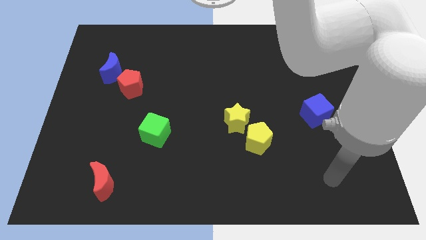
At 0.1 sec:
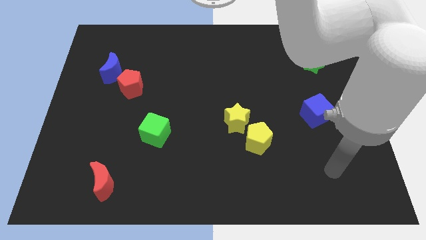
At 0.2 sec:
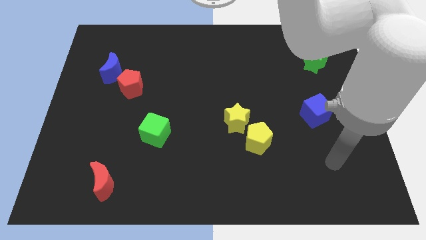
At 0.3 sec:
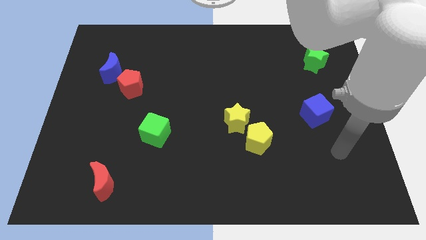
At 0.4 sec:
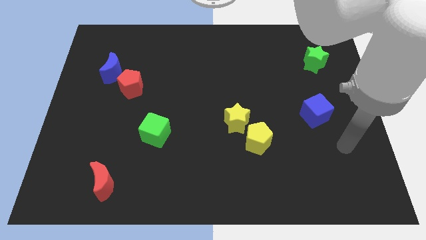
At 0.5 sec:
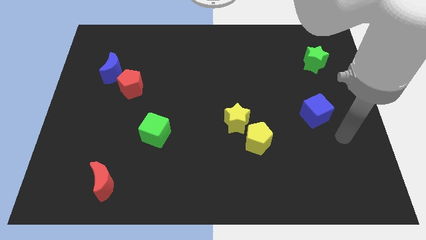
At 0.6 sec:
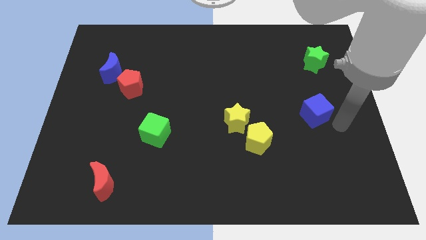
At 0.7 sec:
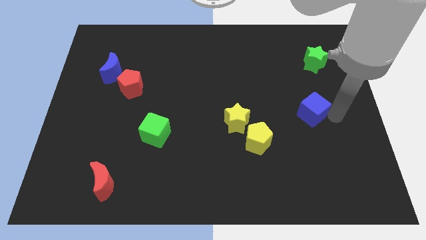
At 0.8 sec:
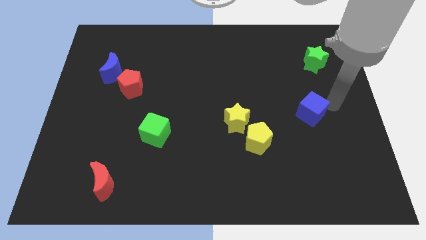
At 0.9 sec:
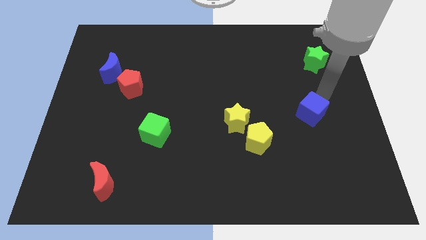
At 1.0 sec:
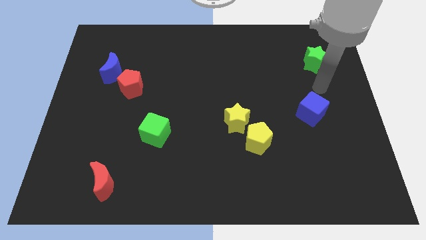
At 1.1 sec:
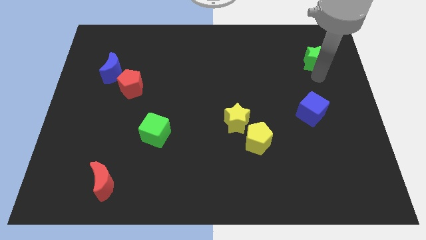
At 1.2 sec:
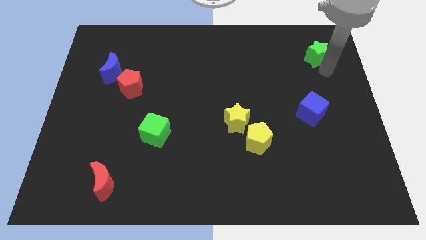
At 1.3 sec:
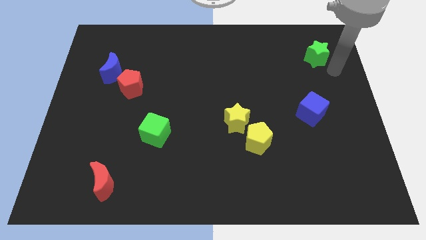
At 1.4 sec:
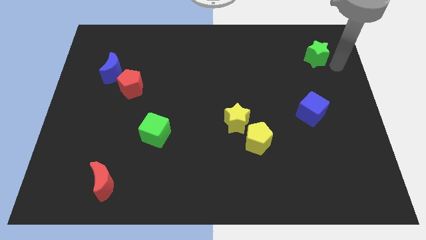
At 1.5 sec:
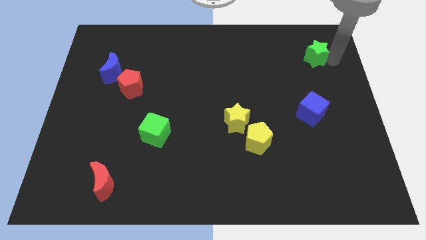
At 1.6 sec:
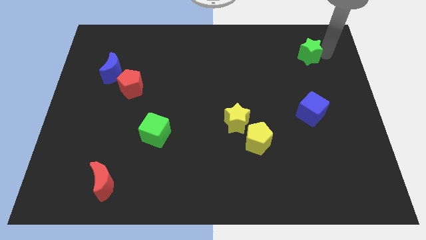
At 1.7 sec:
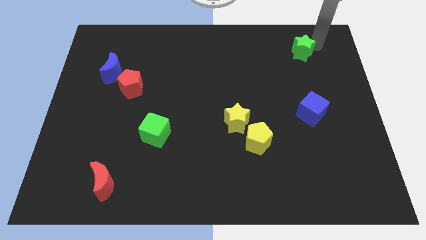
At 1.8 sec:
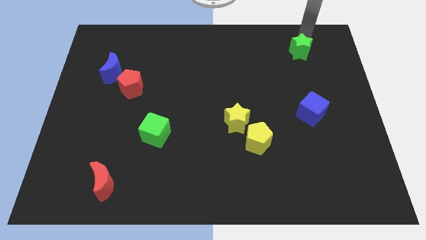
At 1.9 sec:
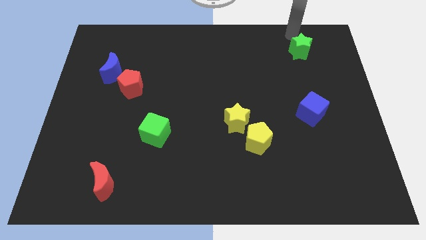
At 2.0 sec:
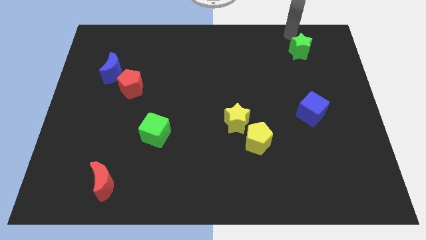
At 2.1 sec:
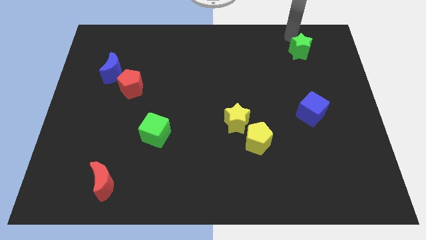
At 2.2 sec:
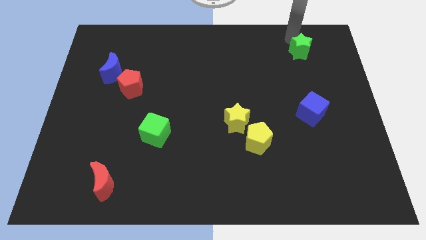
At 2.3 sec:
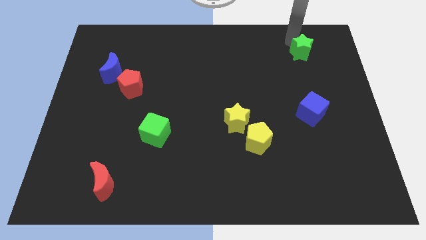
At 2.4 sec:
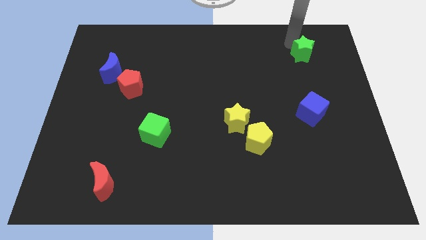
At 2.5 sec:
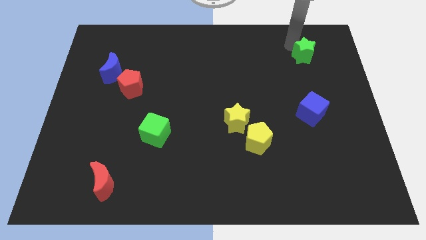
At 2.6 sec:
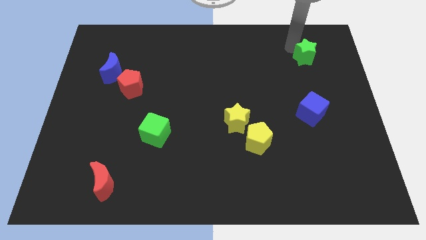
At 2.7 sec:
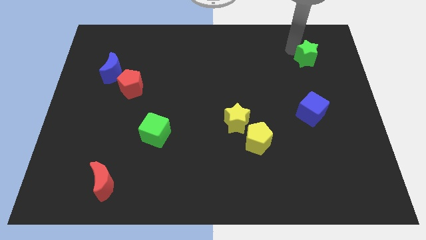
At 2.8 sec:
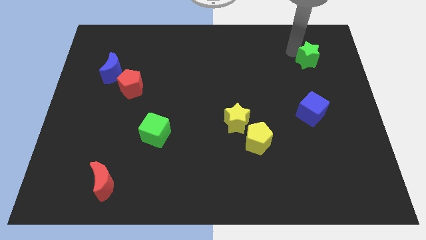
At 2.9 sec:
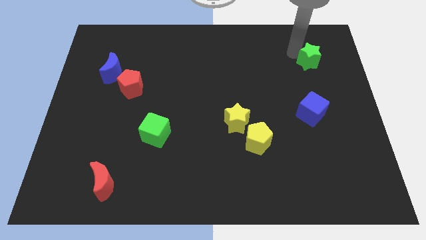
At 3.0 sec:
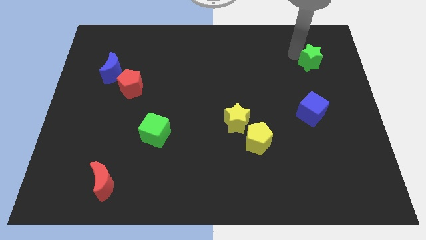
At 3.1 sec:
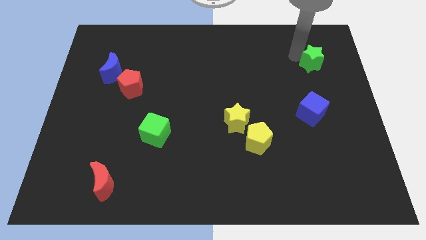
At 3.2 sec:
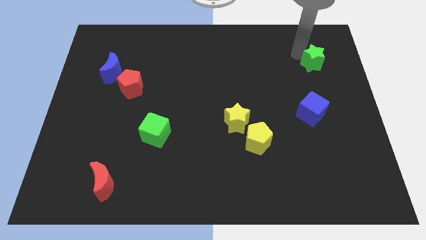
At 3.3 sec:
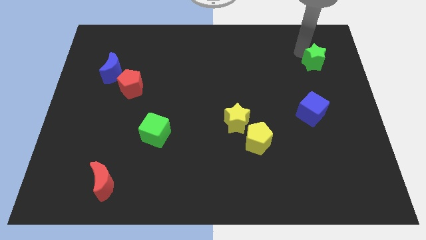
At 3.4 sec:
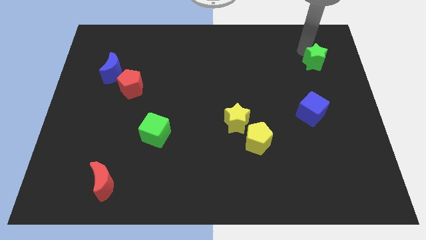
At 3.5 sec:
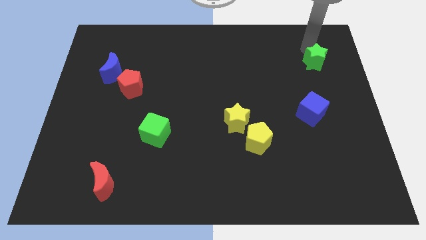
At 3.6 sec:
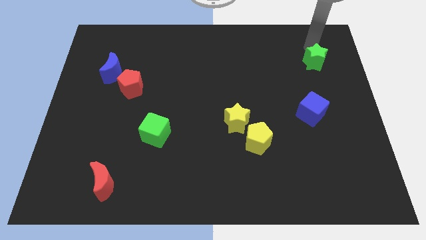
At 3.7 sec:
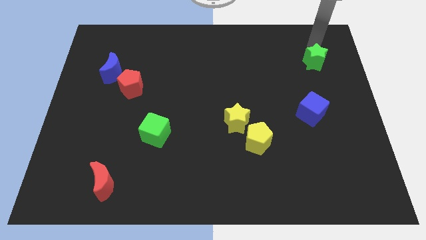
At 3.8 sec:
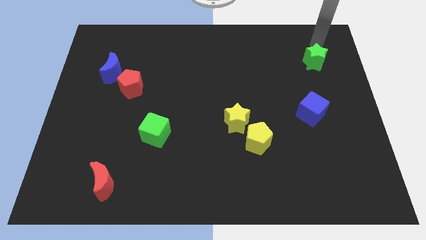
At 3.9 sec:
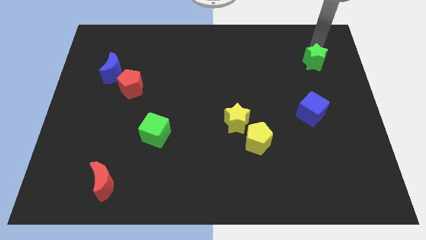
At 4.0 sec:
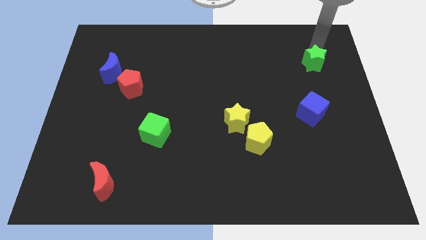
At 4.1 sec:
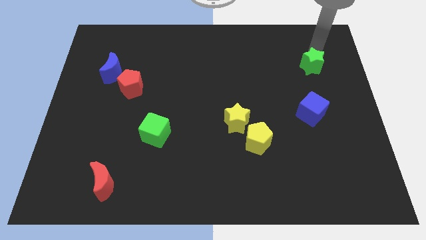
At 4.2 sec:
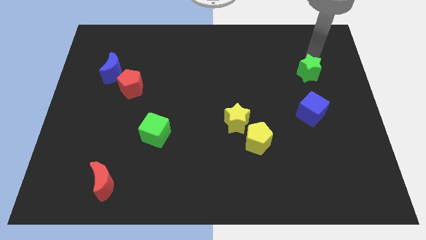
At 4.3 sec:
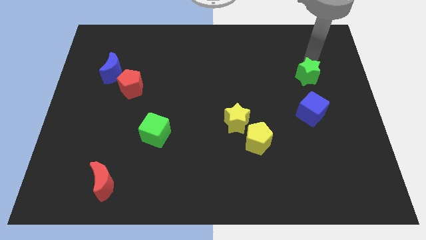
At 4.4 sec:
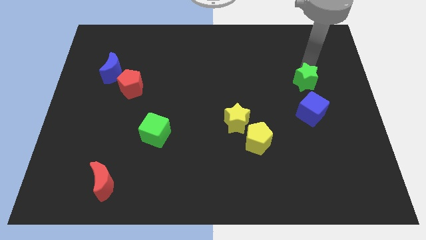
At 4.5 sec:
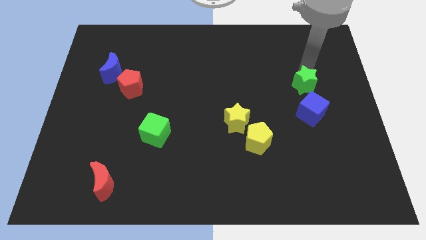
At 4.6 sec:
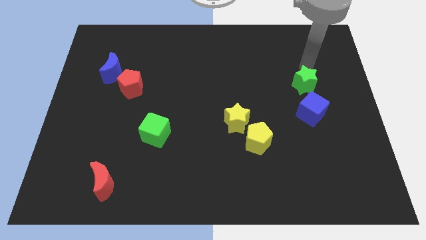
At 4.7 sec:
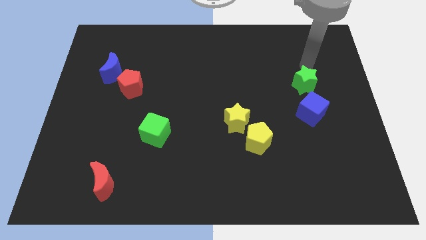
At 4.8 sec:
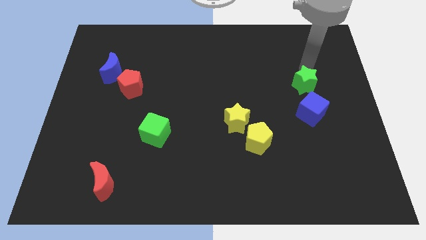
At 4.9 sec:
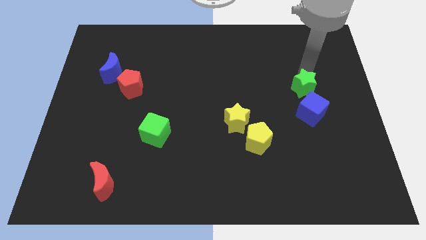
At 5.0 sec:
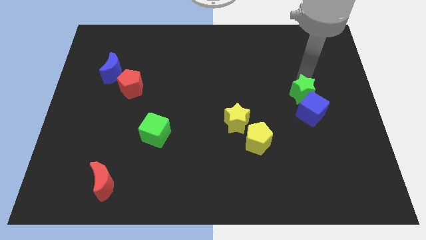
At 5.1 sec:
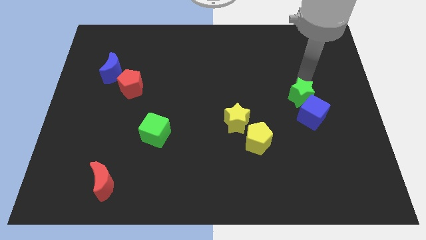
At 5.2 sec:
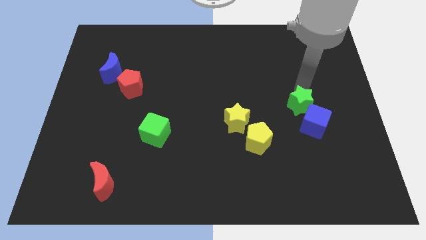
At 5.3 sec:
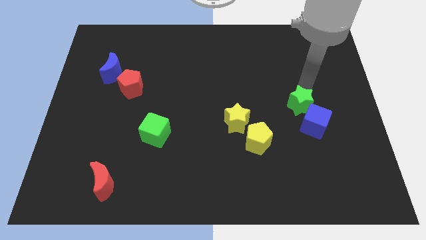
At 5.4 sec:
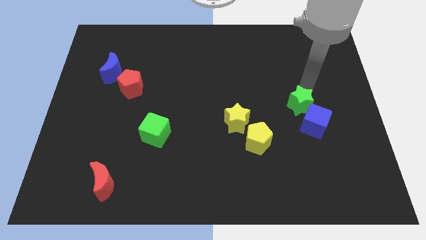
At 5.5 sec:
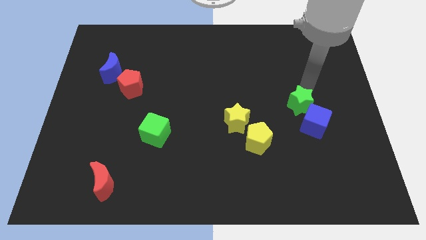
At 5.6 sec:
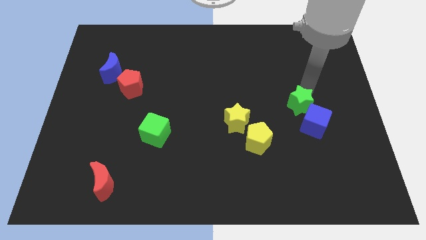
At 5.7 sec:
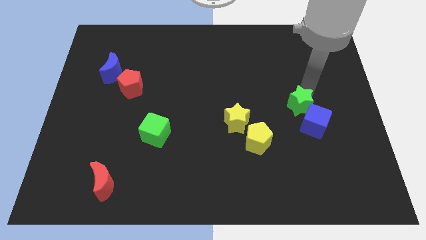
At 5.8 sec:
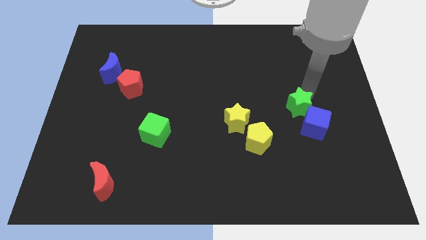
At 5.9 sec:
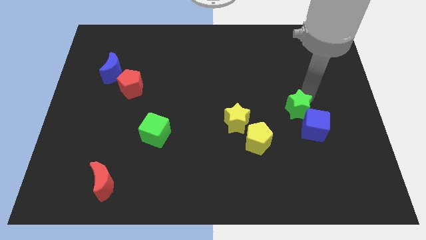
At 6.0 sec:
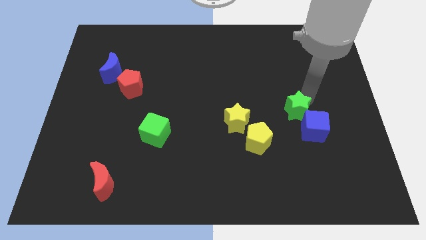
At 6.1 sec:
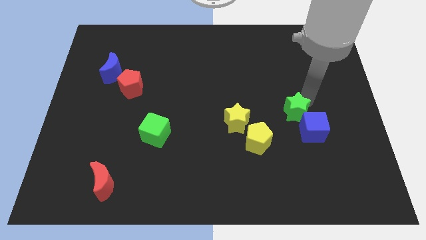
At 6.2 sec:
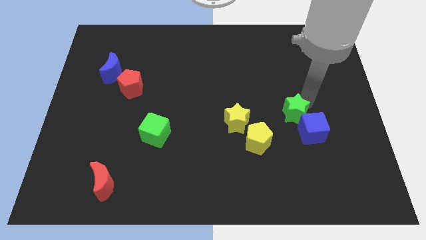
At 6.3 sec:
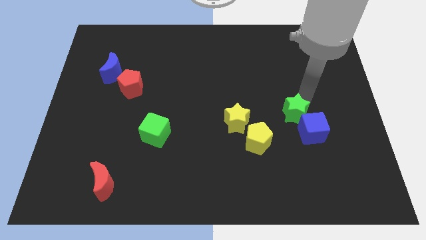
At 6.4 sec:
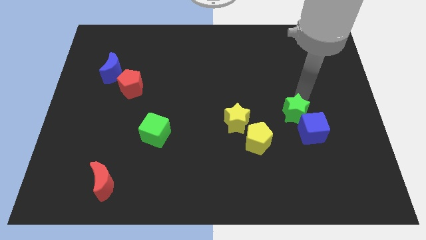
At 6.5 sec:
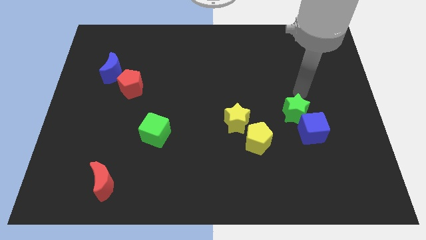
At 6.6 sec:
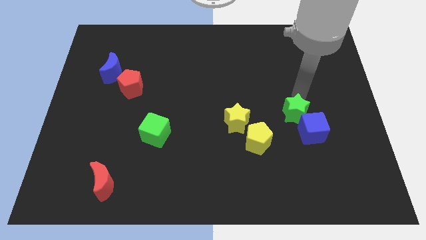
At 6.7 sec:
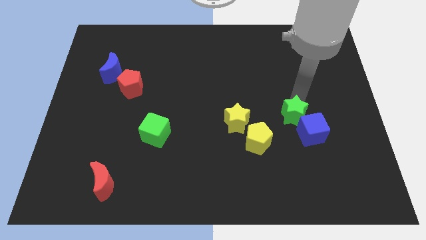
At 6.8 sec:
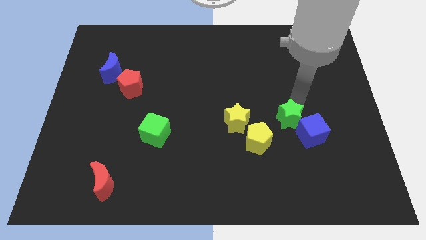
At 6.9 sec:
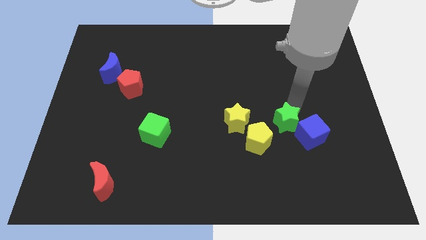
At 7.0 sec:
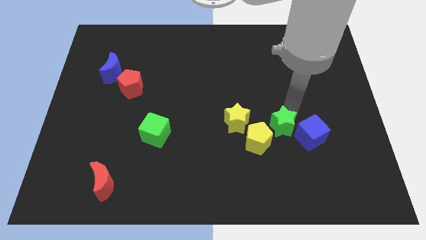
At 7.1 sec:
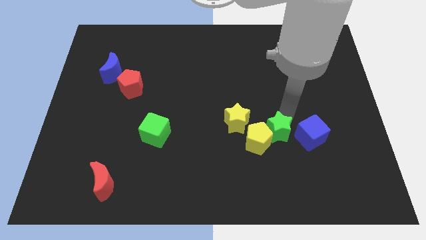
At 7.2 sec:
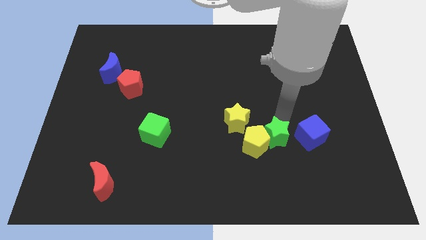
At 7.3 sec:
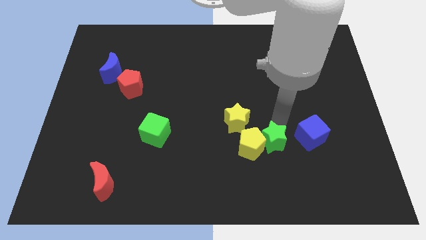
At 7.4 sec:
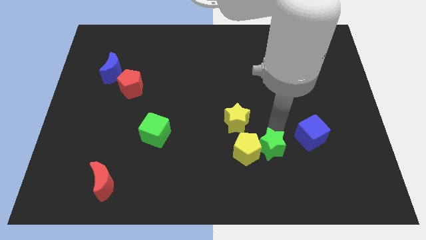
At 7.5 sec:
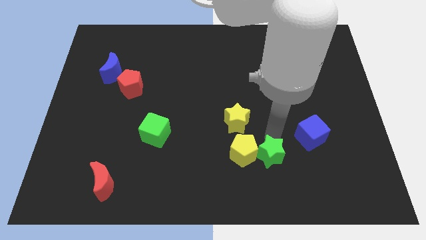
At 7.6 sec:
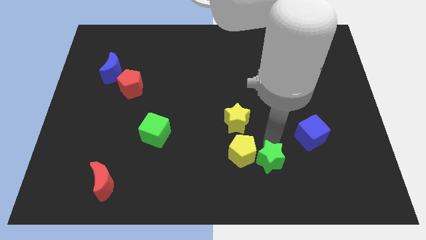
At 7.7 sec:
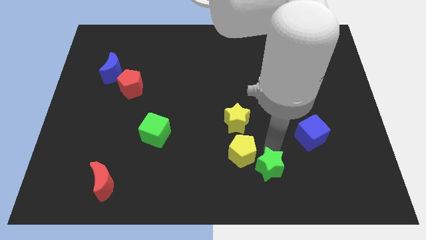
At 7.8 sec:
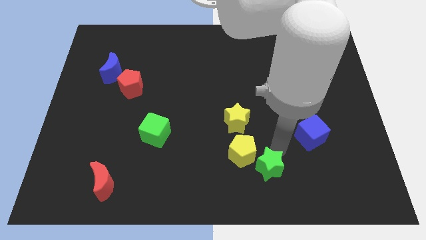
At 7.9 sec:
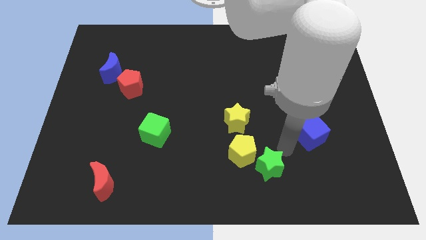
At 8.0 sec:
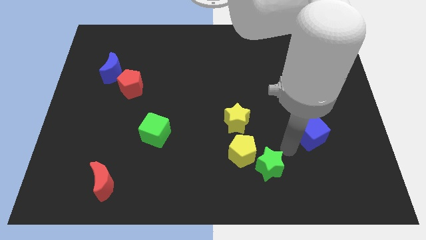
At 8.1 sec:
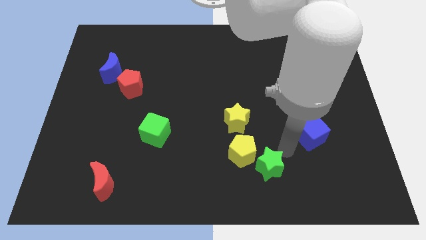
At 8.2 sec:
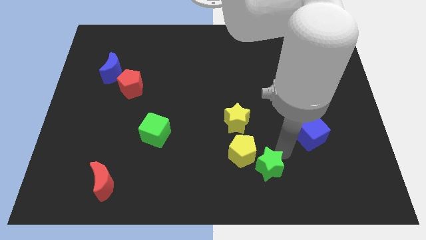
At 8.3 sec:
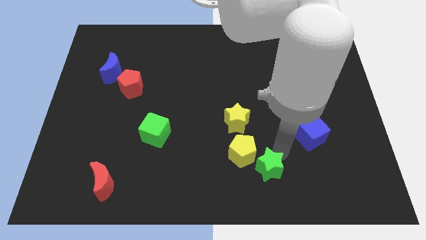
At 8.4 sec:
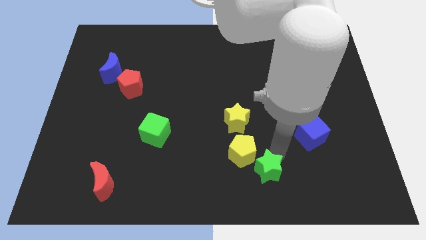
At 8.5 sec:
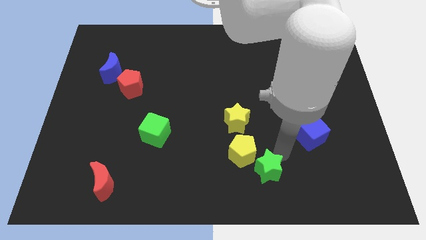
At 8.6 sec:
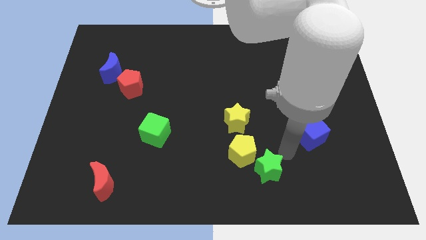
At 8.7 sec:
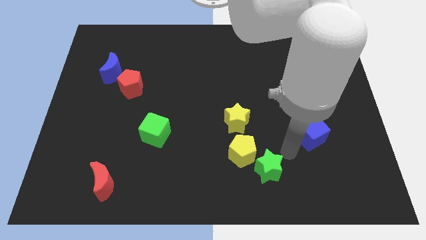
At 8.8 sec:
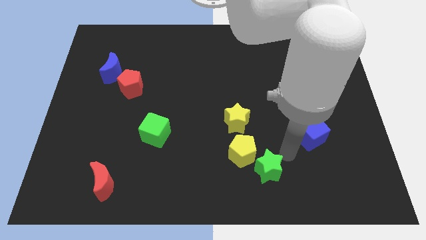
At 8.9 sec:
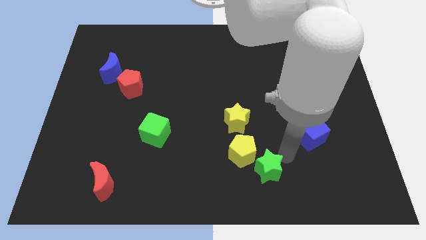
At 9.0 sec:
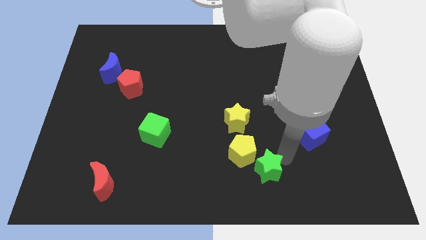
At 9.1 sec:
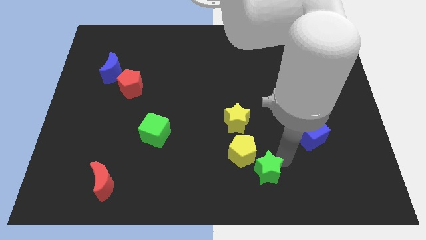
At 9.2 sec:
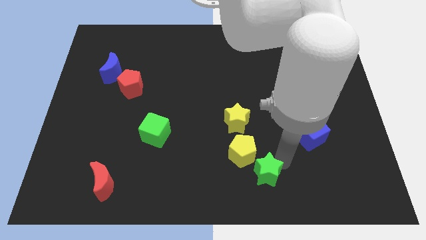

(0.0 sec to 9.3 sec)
move the green star to the bottom side
